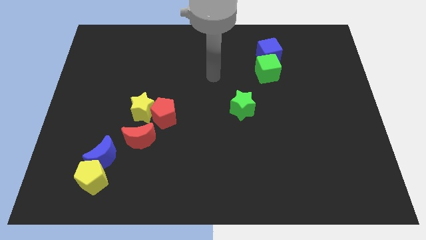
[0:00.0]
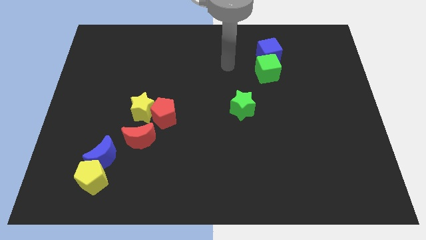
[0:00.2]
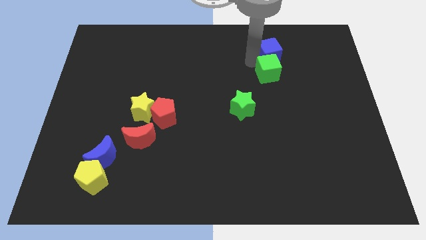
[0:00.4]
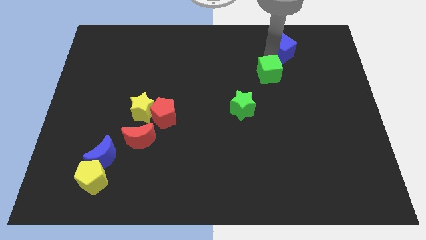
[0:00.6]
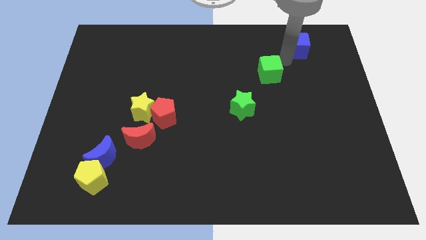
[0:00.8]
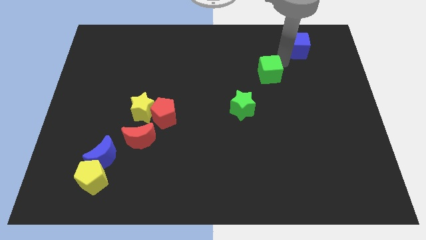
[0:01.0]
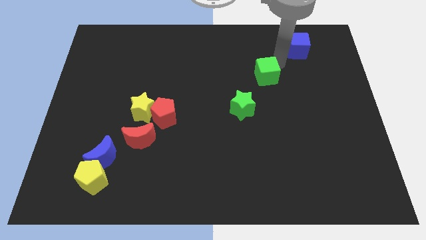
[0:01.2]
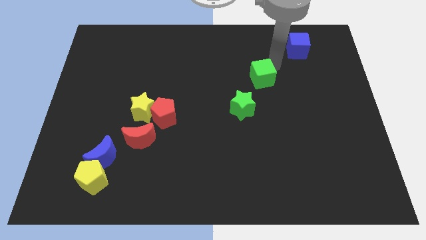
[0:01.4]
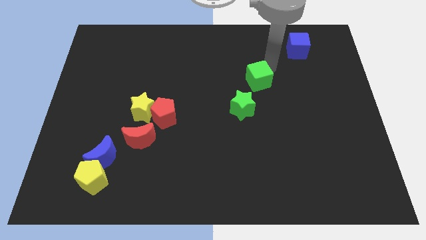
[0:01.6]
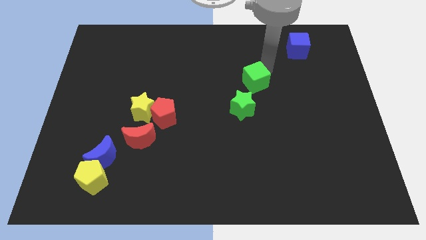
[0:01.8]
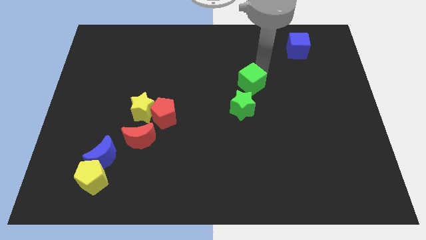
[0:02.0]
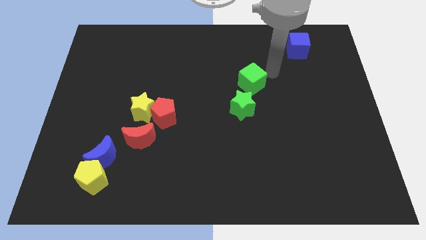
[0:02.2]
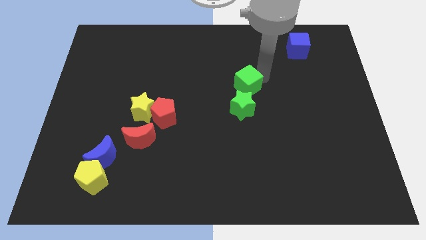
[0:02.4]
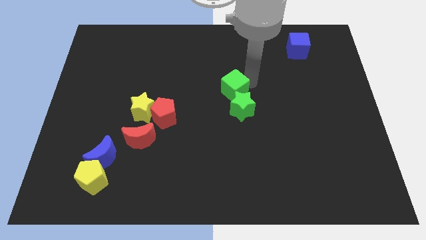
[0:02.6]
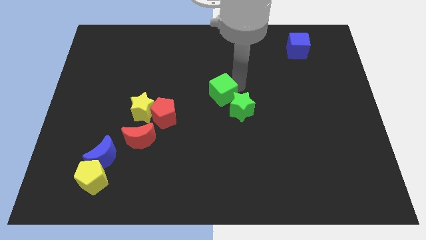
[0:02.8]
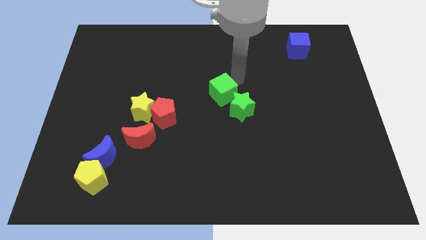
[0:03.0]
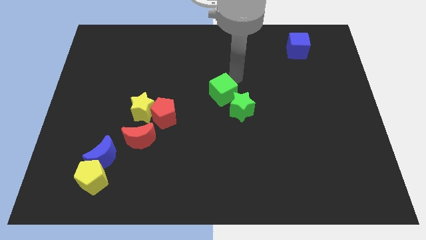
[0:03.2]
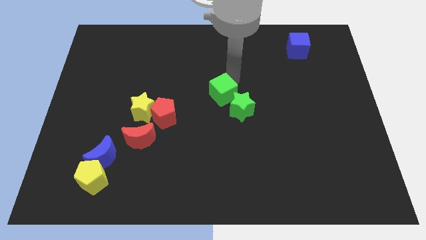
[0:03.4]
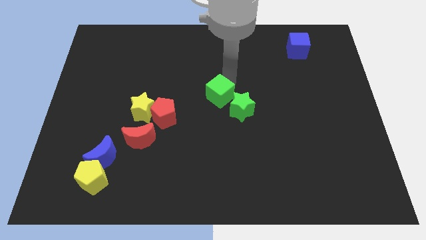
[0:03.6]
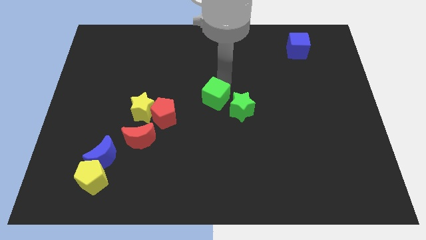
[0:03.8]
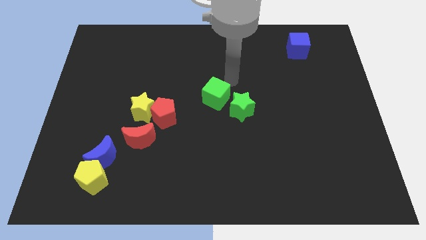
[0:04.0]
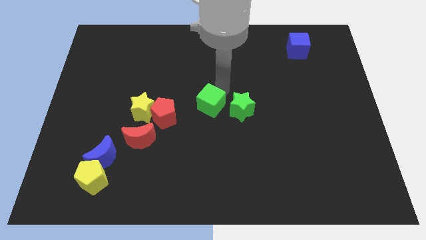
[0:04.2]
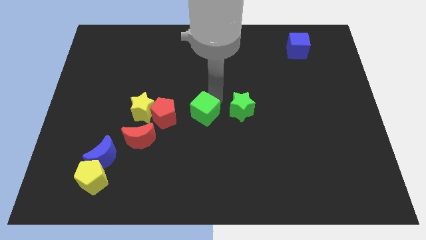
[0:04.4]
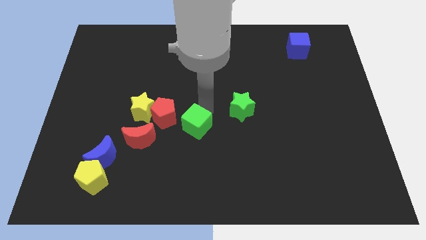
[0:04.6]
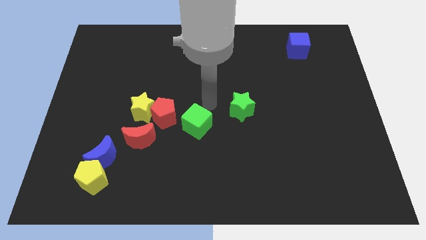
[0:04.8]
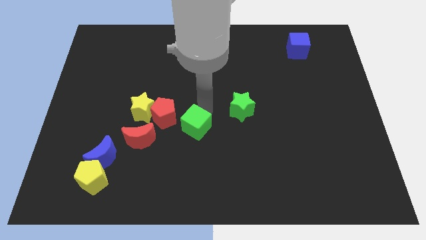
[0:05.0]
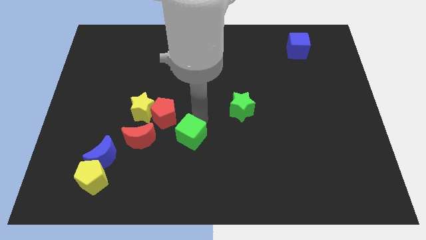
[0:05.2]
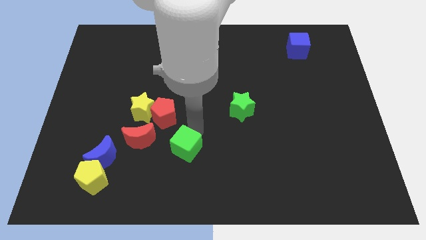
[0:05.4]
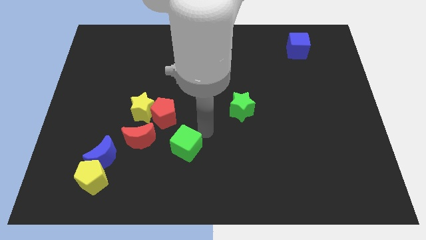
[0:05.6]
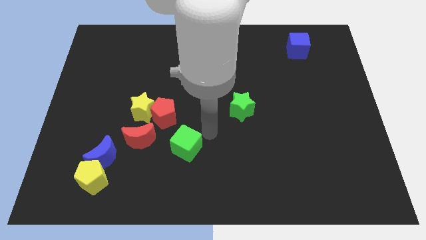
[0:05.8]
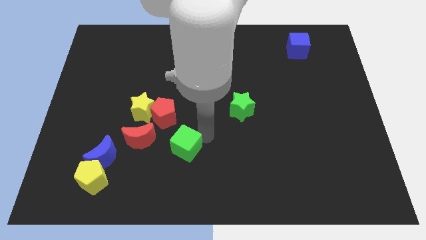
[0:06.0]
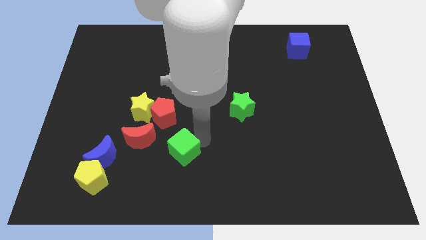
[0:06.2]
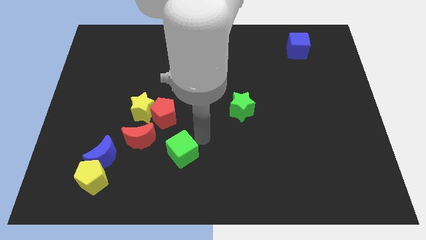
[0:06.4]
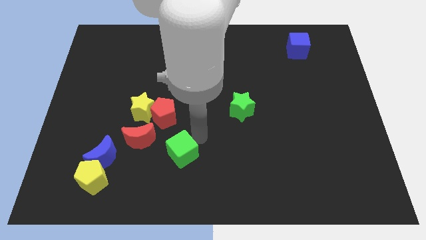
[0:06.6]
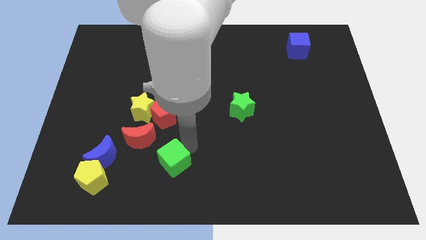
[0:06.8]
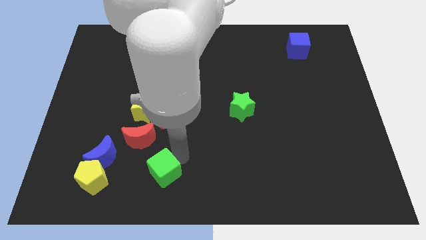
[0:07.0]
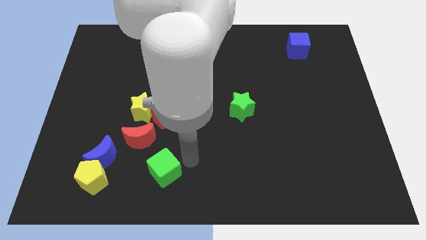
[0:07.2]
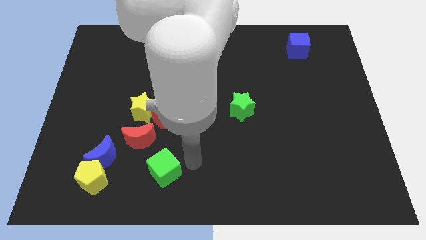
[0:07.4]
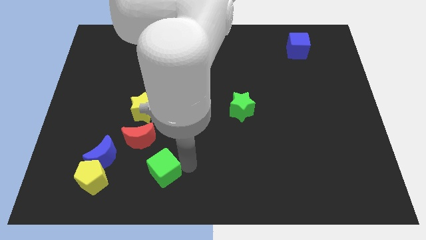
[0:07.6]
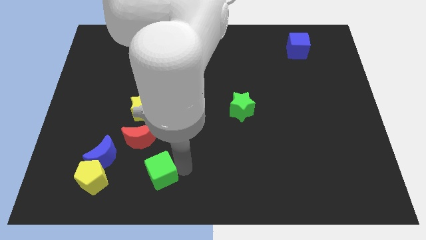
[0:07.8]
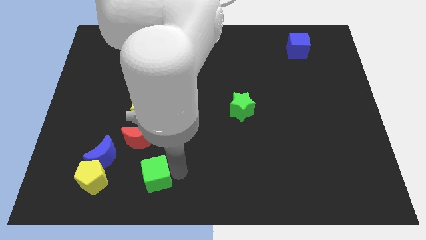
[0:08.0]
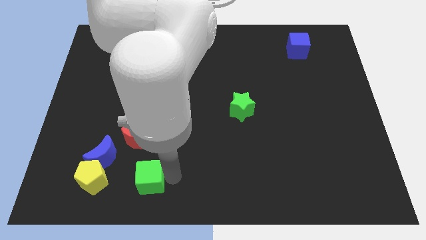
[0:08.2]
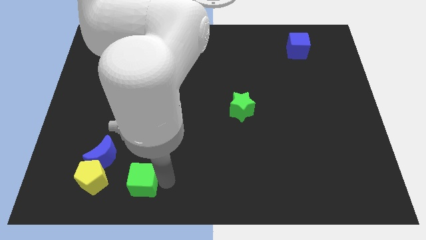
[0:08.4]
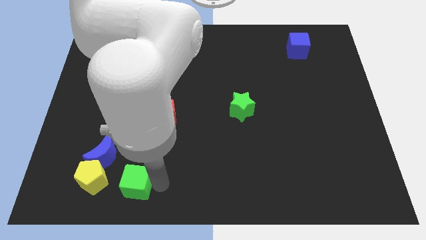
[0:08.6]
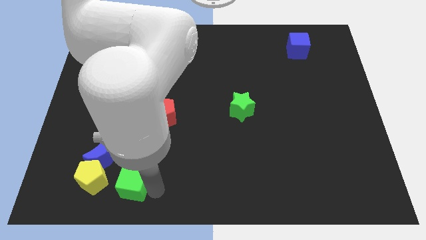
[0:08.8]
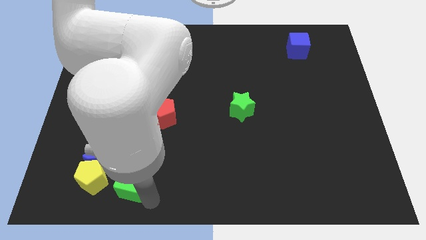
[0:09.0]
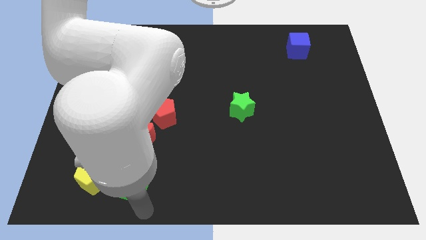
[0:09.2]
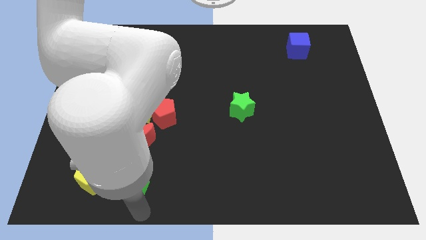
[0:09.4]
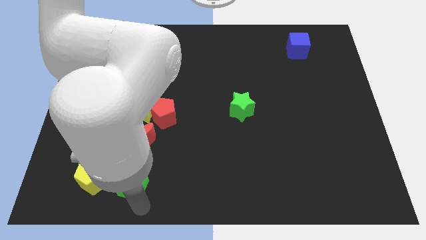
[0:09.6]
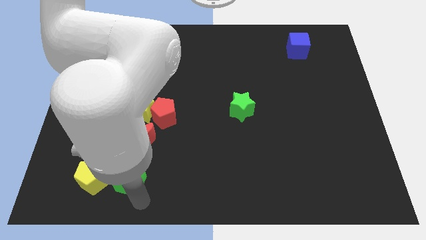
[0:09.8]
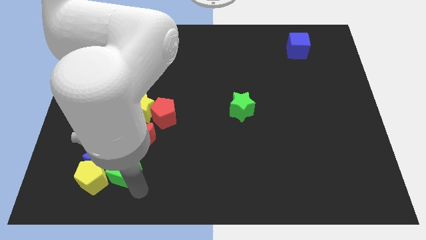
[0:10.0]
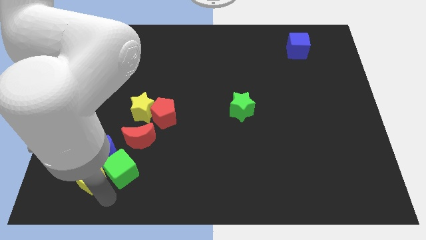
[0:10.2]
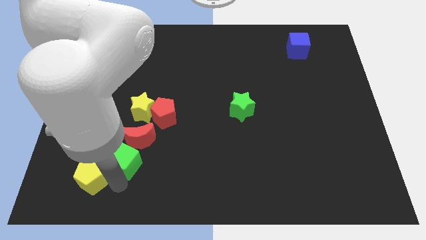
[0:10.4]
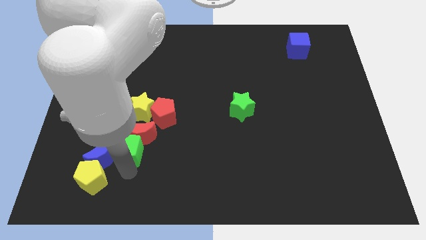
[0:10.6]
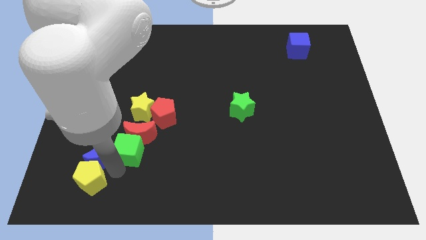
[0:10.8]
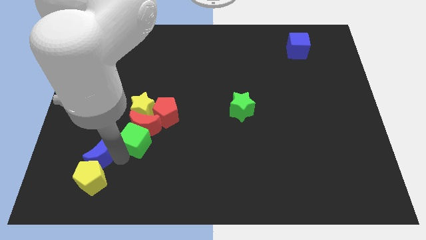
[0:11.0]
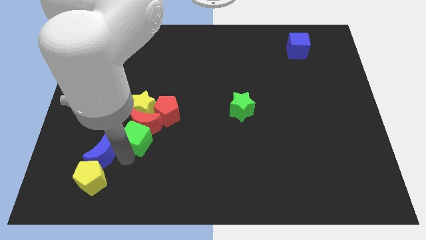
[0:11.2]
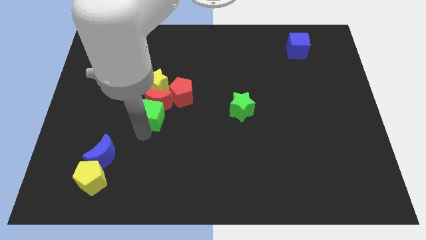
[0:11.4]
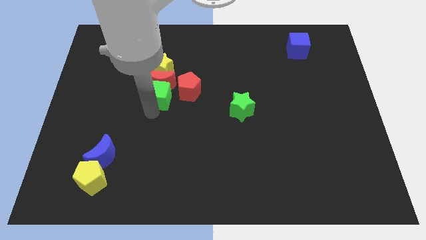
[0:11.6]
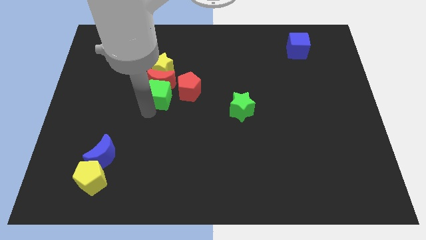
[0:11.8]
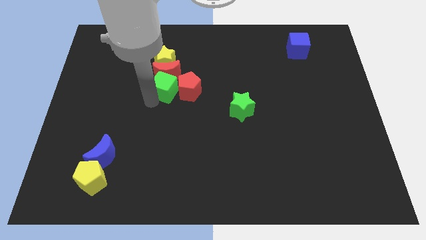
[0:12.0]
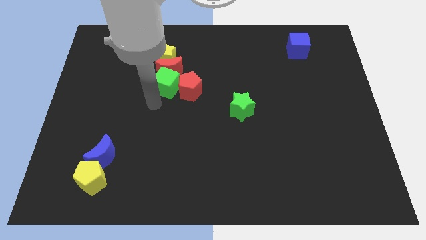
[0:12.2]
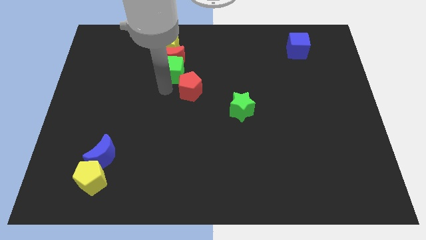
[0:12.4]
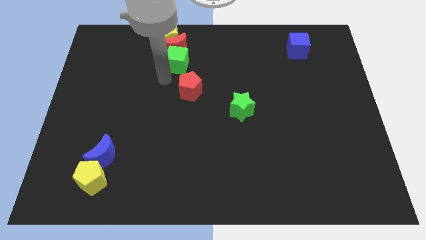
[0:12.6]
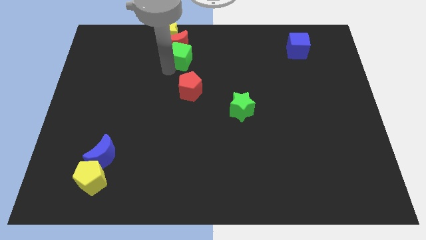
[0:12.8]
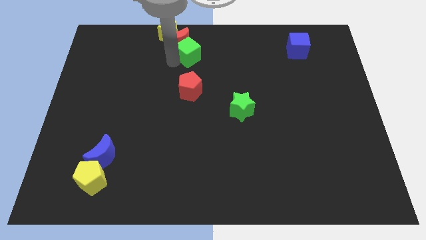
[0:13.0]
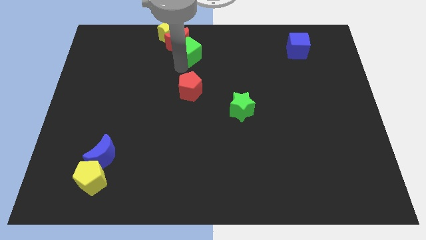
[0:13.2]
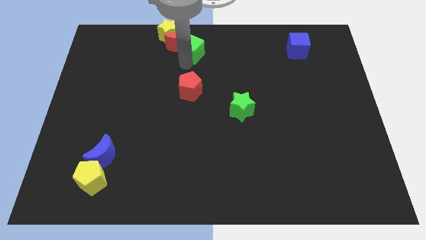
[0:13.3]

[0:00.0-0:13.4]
move the green cube to the top
